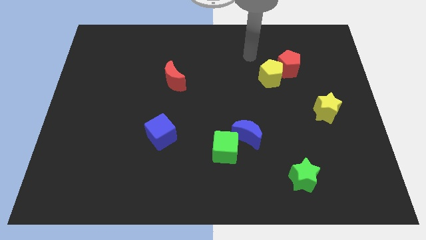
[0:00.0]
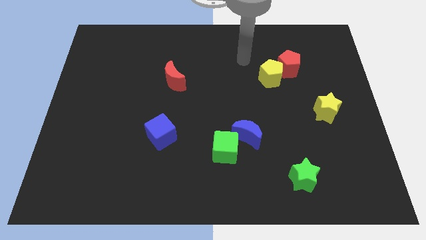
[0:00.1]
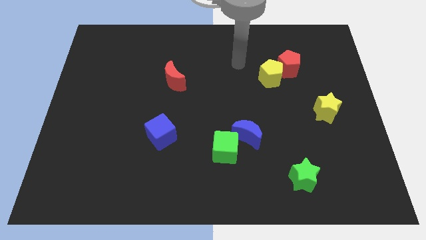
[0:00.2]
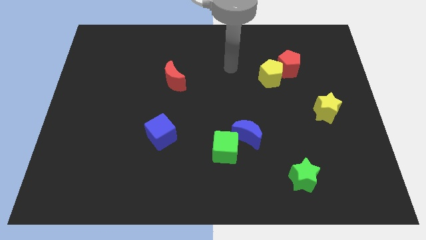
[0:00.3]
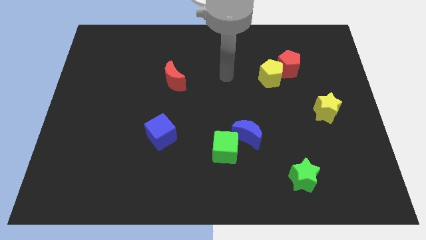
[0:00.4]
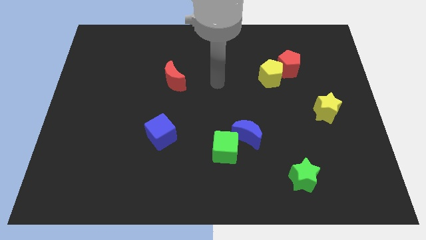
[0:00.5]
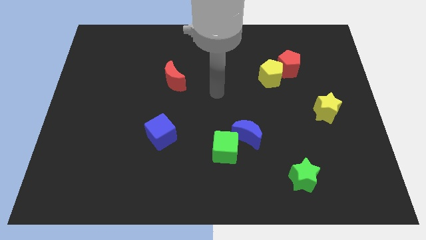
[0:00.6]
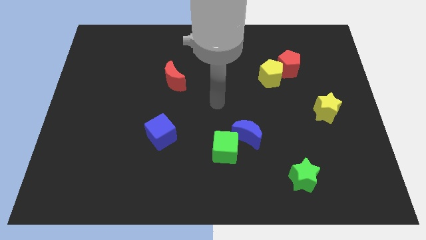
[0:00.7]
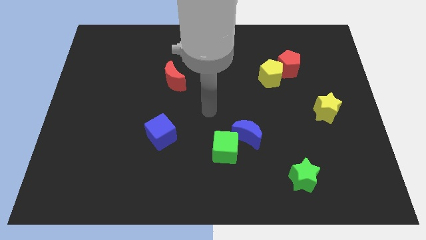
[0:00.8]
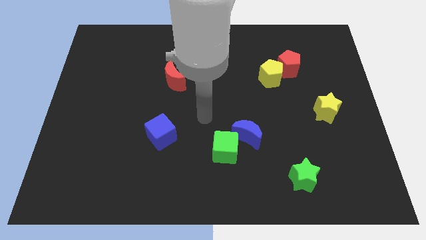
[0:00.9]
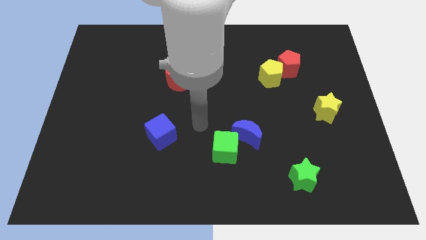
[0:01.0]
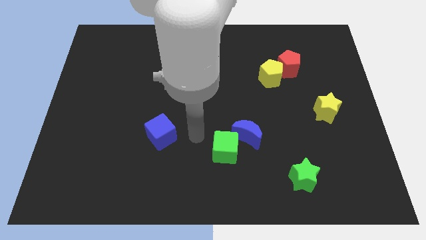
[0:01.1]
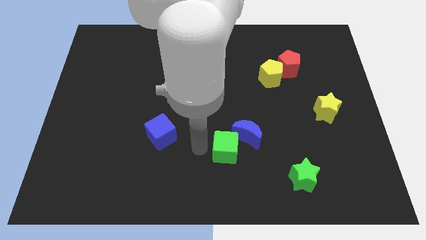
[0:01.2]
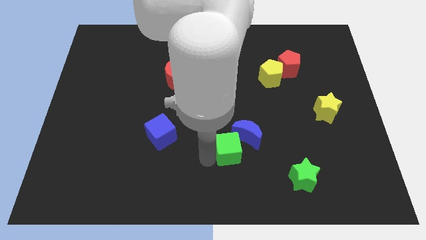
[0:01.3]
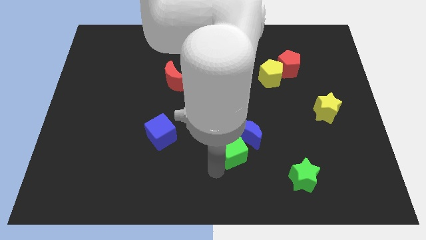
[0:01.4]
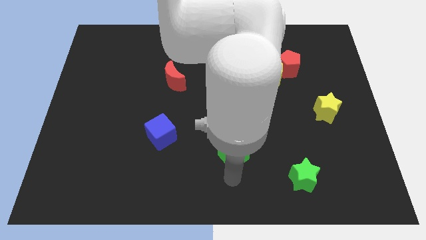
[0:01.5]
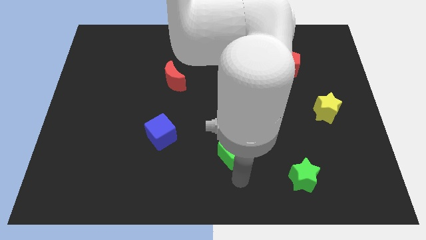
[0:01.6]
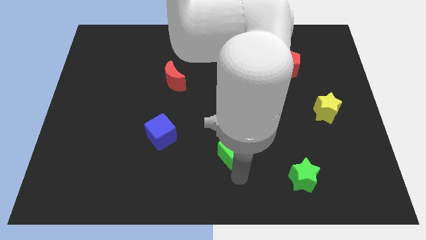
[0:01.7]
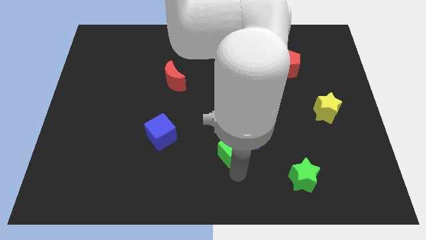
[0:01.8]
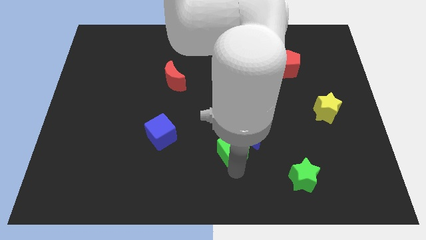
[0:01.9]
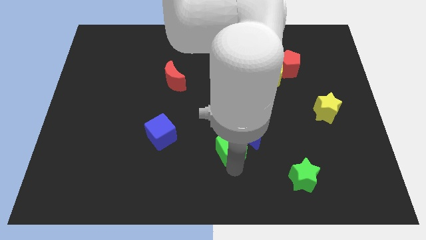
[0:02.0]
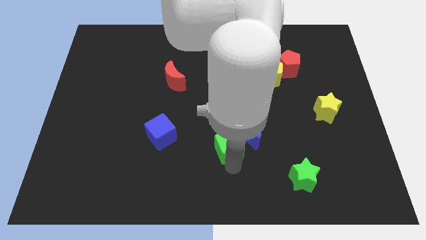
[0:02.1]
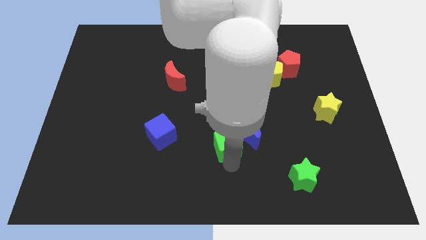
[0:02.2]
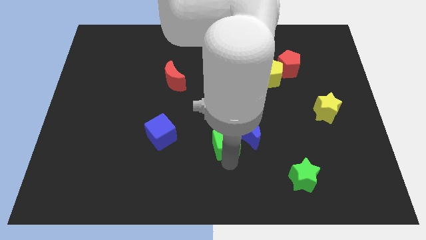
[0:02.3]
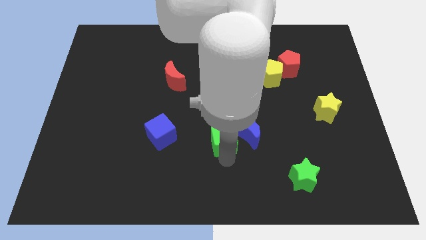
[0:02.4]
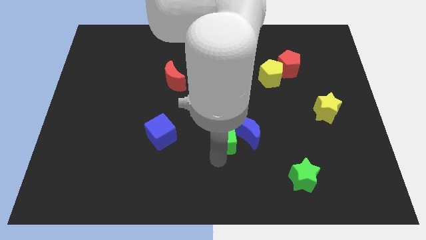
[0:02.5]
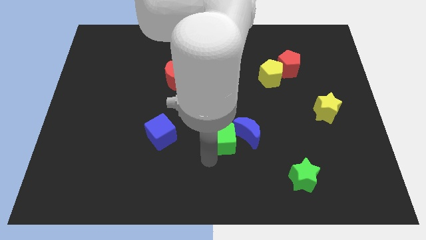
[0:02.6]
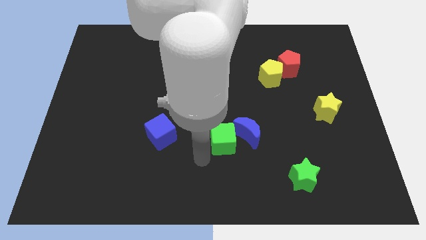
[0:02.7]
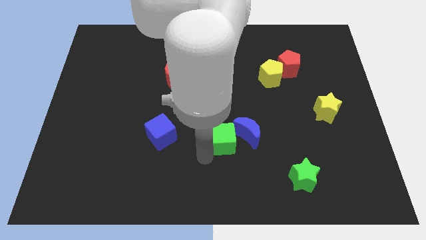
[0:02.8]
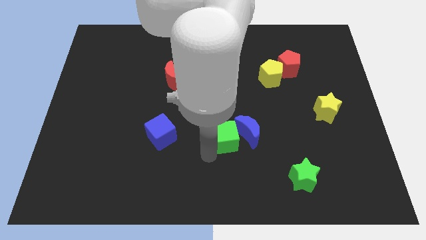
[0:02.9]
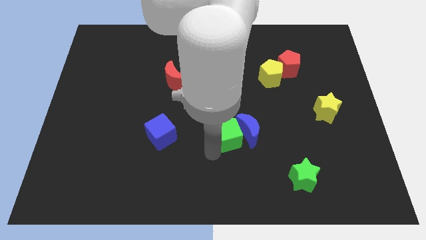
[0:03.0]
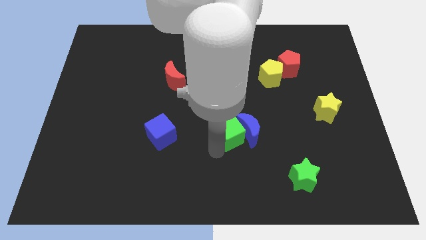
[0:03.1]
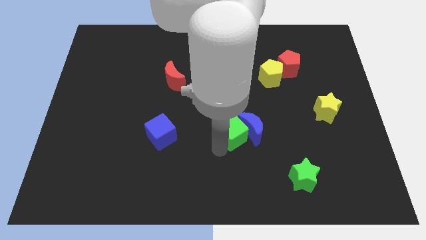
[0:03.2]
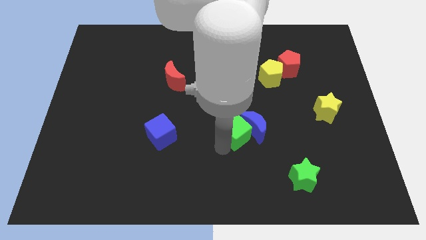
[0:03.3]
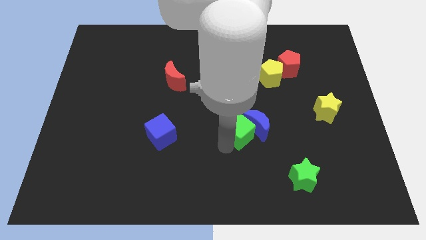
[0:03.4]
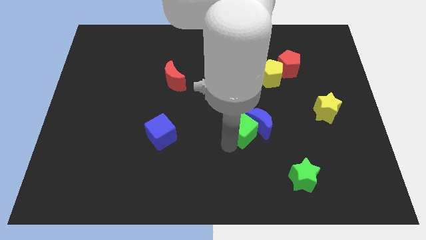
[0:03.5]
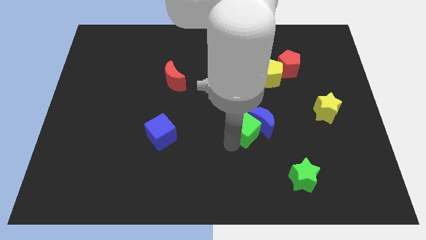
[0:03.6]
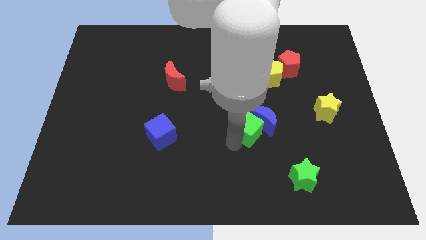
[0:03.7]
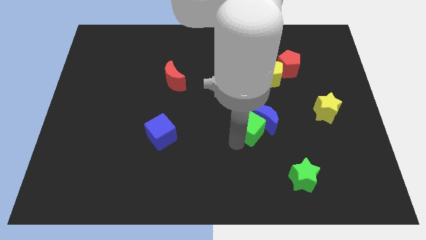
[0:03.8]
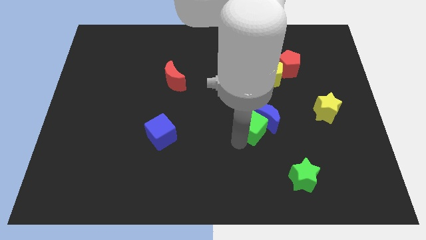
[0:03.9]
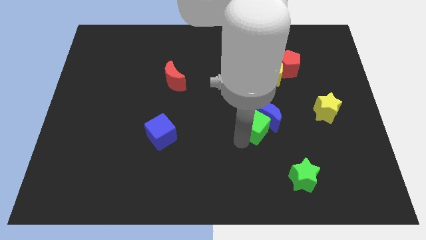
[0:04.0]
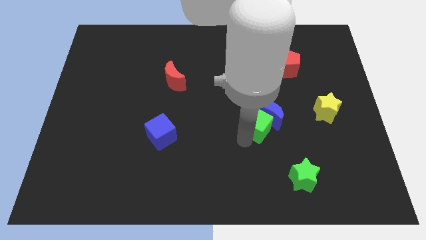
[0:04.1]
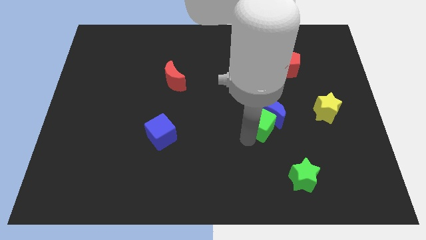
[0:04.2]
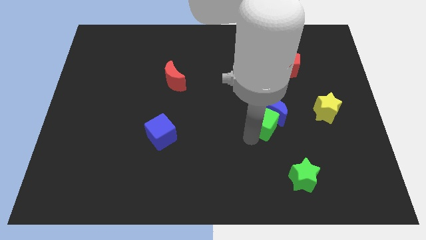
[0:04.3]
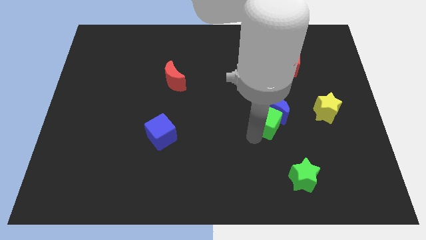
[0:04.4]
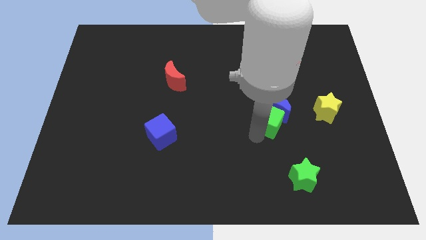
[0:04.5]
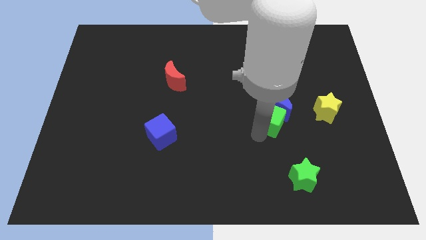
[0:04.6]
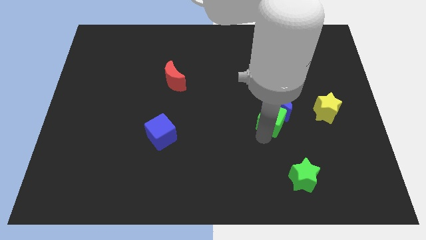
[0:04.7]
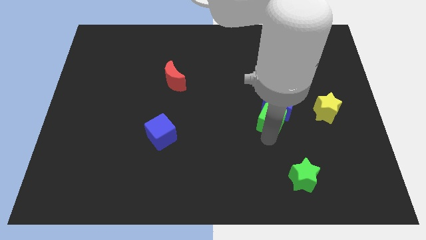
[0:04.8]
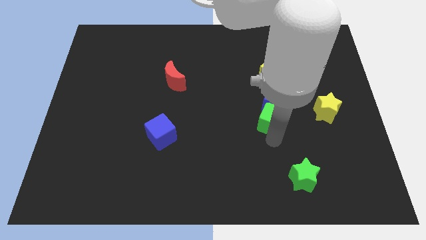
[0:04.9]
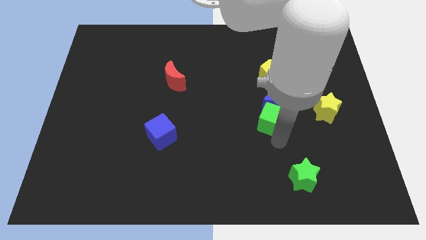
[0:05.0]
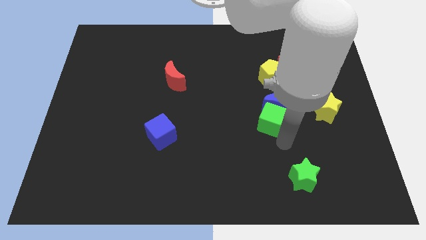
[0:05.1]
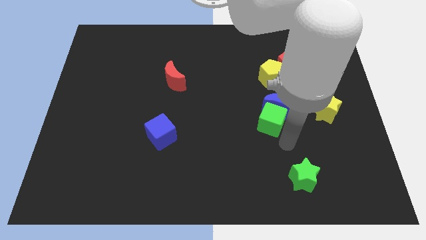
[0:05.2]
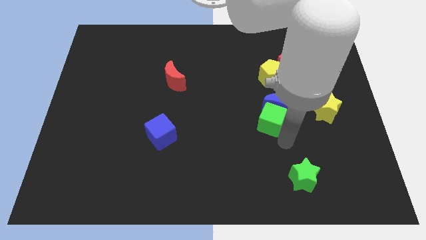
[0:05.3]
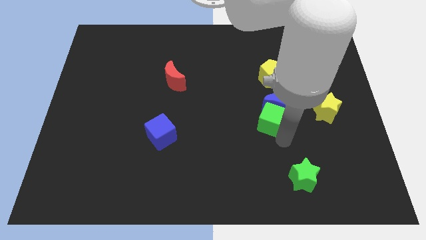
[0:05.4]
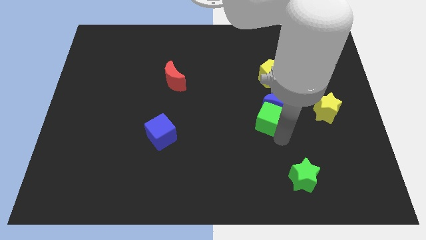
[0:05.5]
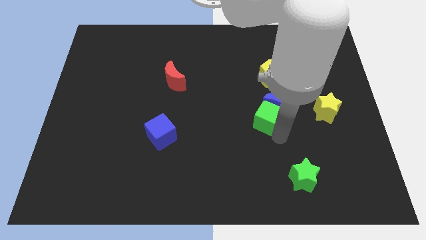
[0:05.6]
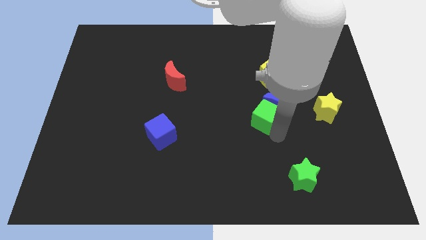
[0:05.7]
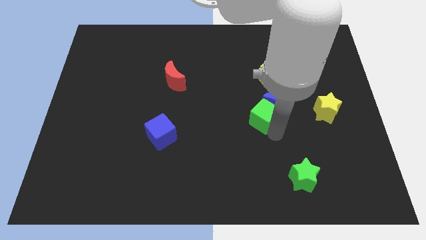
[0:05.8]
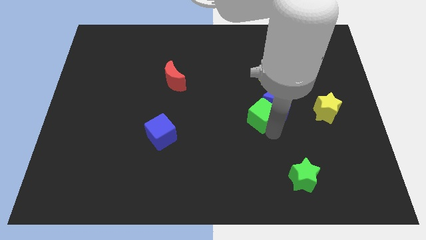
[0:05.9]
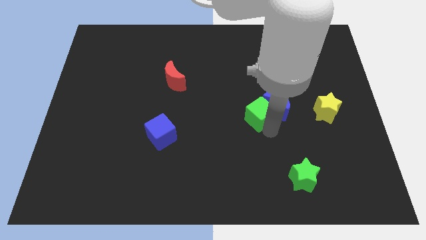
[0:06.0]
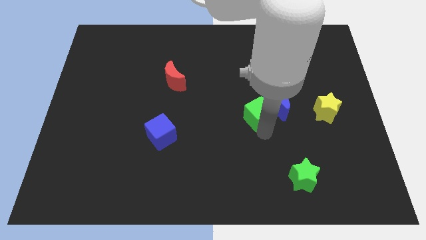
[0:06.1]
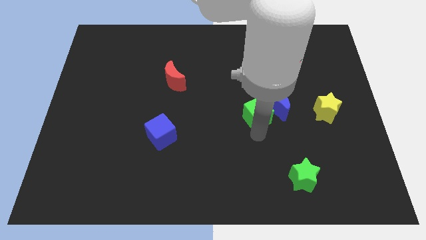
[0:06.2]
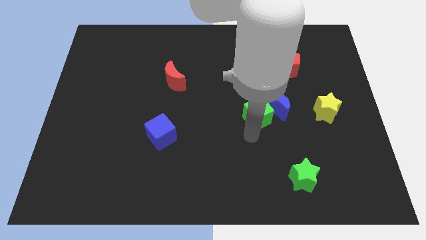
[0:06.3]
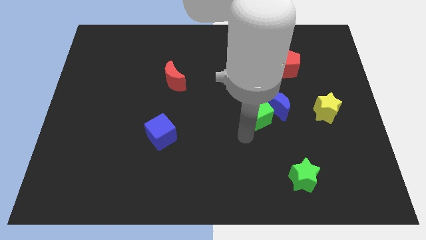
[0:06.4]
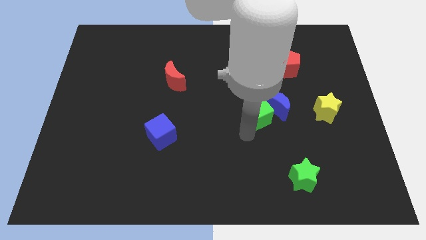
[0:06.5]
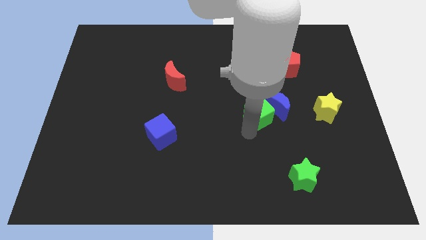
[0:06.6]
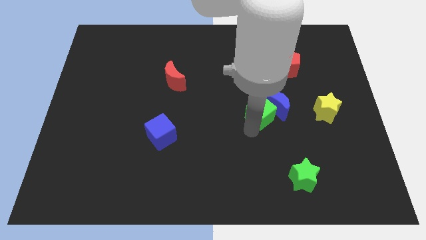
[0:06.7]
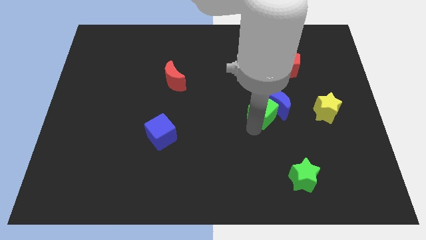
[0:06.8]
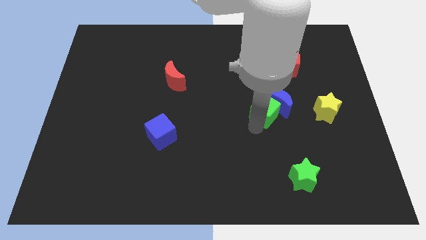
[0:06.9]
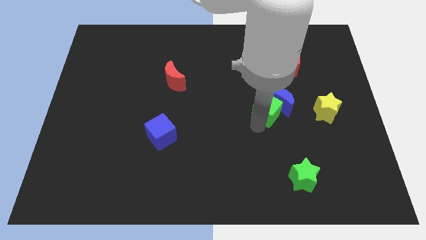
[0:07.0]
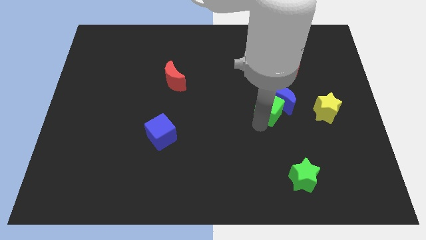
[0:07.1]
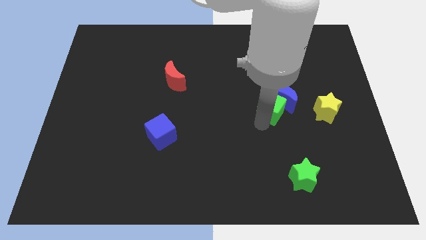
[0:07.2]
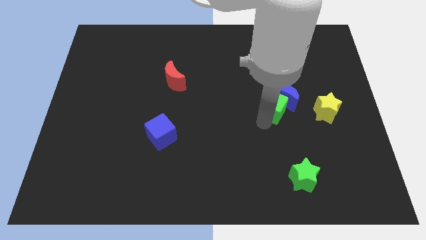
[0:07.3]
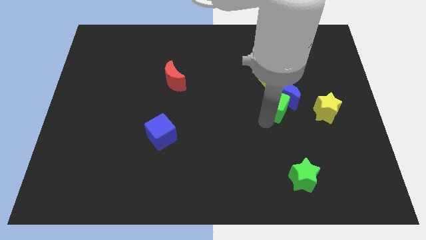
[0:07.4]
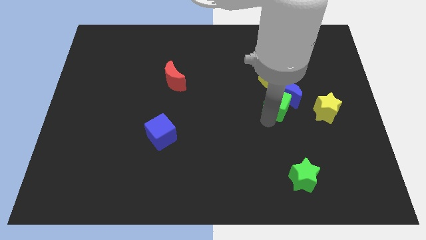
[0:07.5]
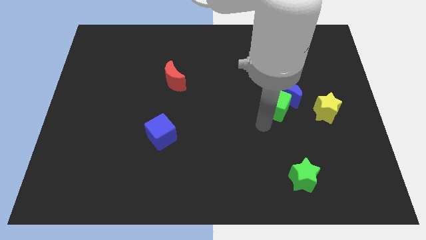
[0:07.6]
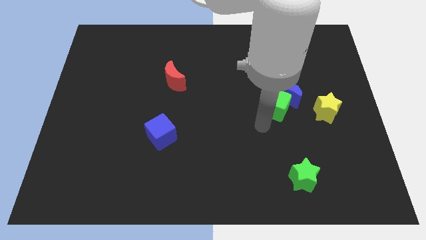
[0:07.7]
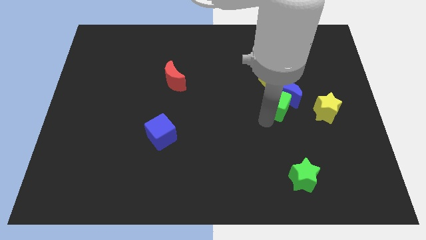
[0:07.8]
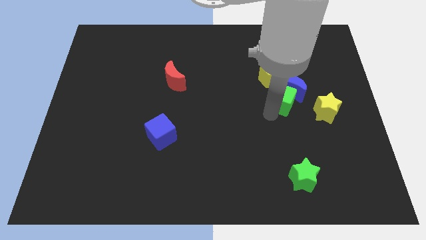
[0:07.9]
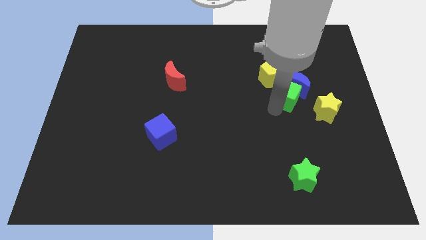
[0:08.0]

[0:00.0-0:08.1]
move the green cube diagonally upwards and right

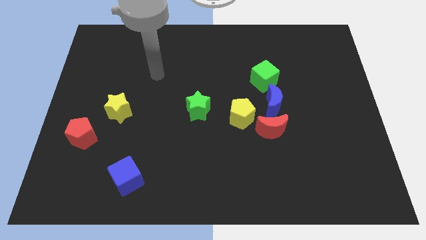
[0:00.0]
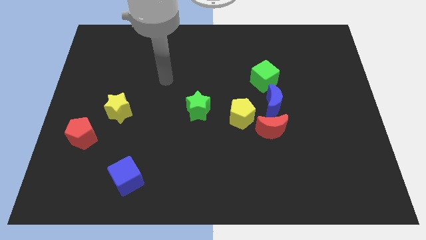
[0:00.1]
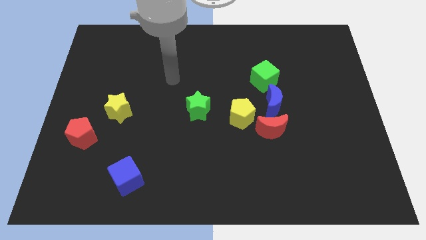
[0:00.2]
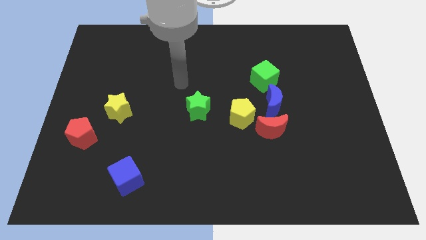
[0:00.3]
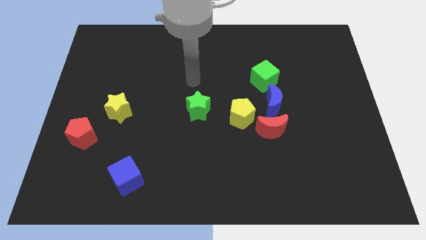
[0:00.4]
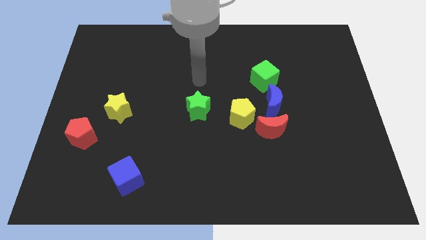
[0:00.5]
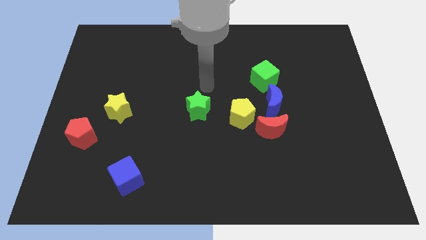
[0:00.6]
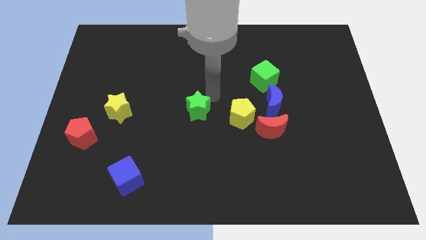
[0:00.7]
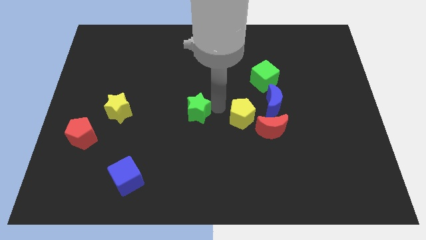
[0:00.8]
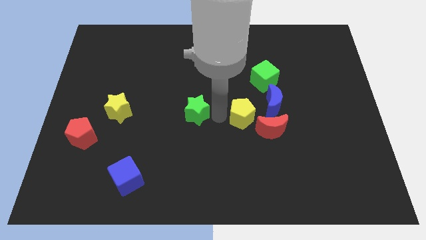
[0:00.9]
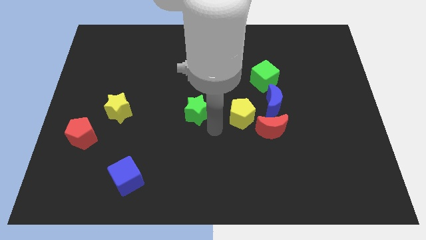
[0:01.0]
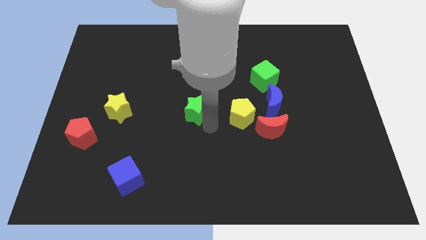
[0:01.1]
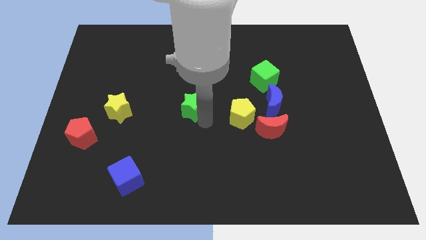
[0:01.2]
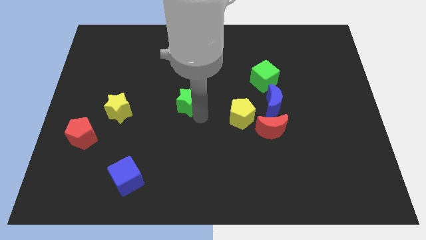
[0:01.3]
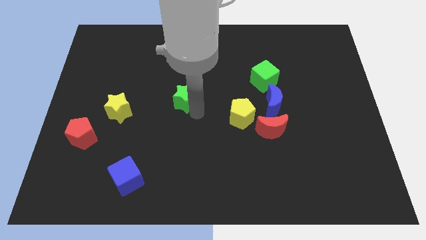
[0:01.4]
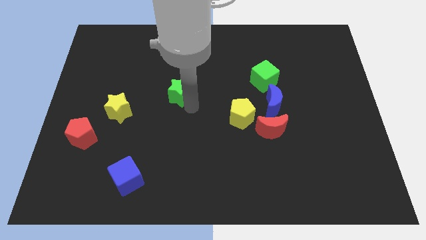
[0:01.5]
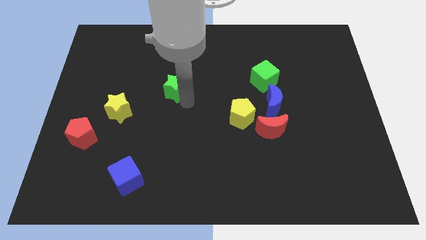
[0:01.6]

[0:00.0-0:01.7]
slightly slide the green star up and then left
